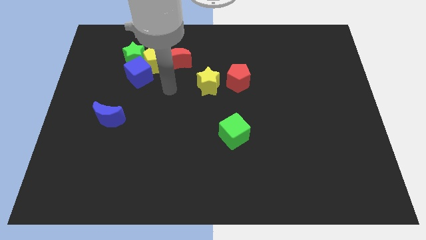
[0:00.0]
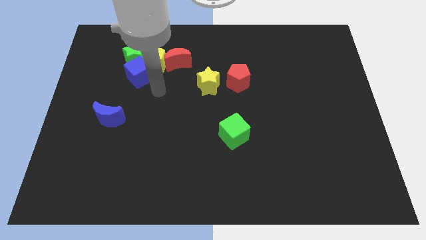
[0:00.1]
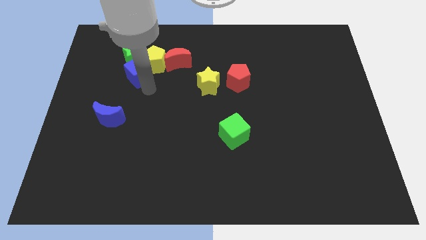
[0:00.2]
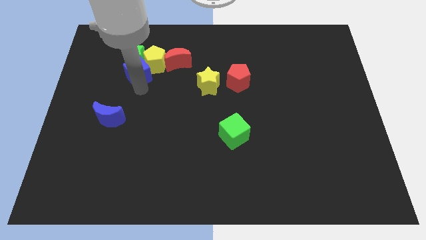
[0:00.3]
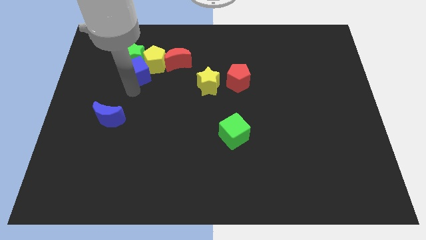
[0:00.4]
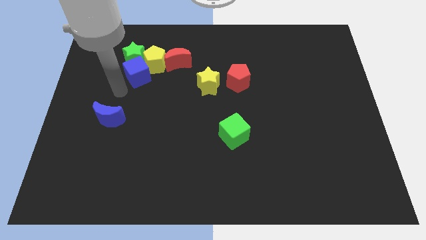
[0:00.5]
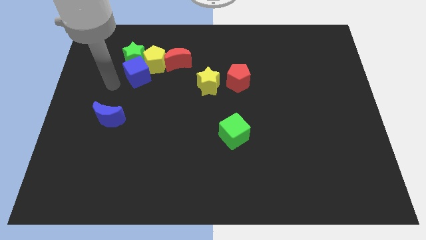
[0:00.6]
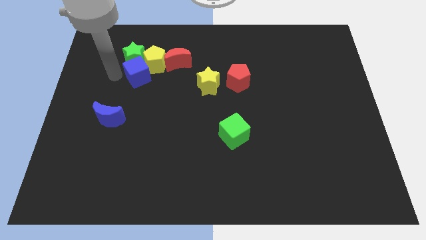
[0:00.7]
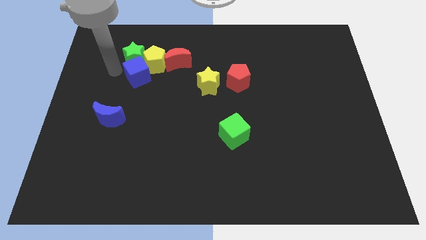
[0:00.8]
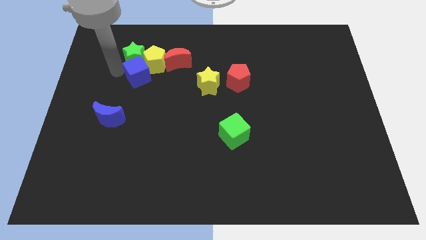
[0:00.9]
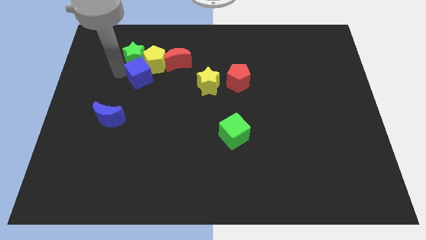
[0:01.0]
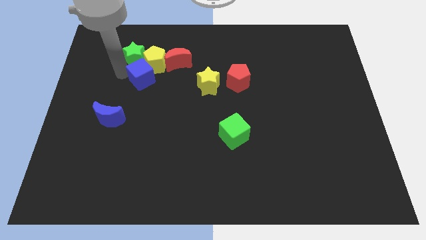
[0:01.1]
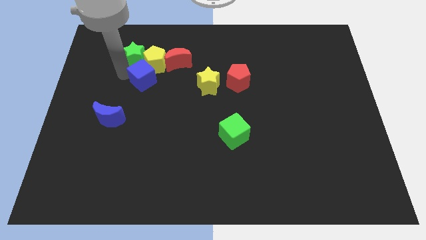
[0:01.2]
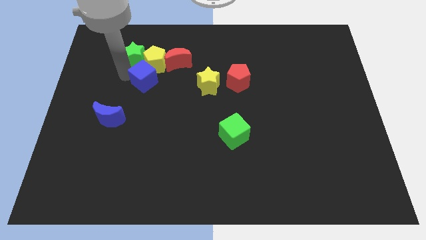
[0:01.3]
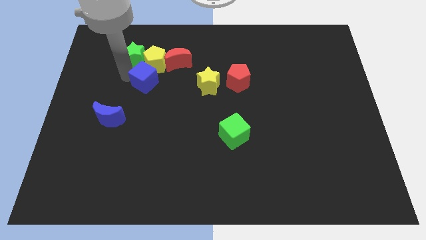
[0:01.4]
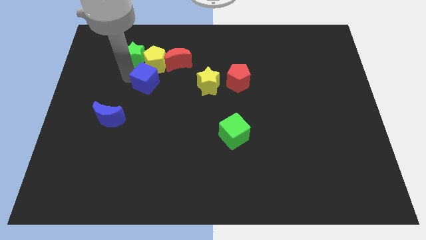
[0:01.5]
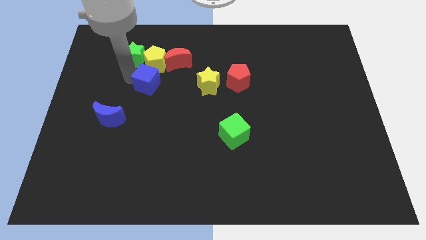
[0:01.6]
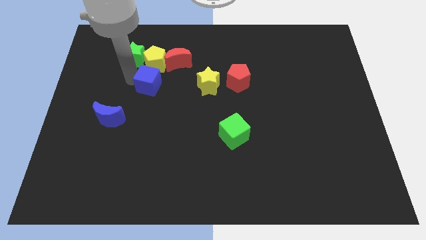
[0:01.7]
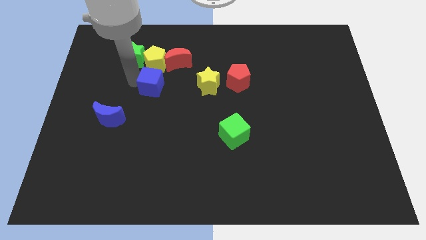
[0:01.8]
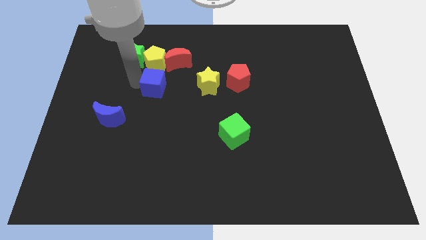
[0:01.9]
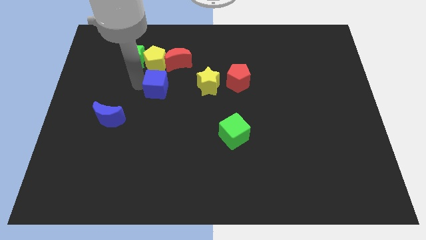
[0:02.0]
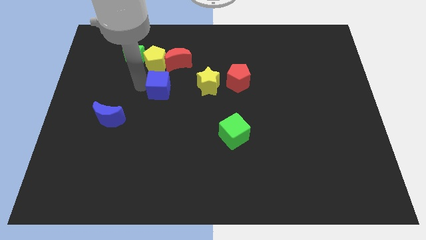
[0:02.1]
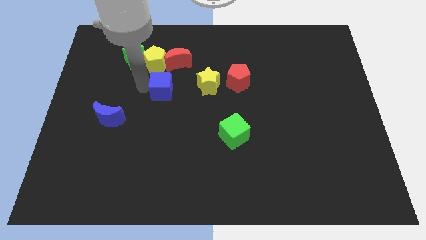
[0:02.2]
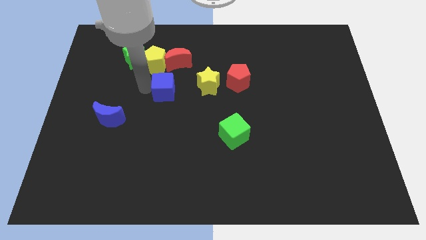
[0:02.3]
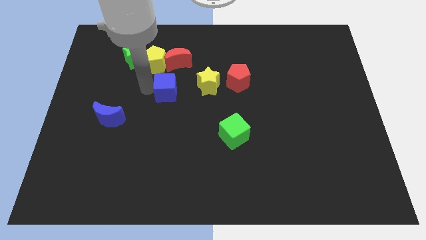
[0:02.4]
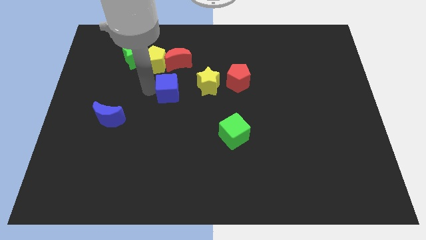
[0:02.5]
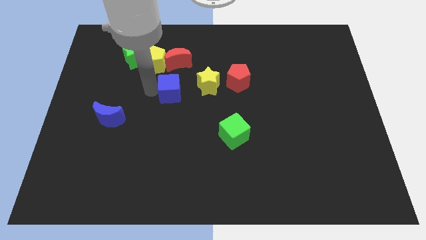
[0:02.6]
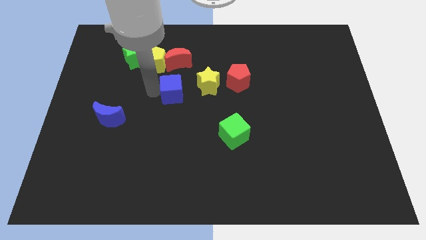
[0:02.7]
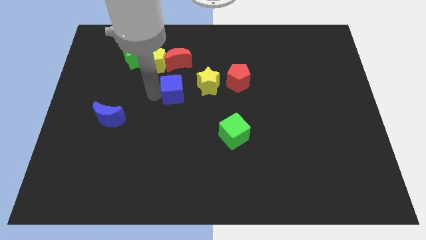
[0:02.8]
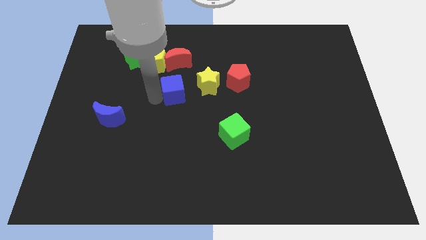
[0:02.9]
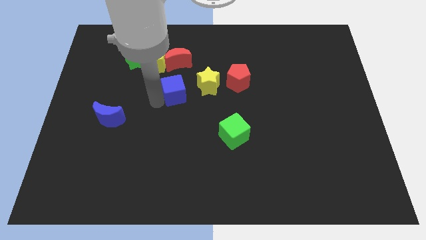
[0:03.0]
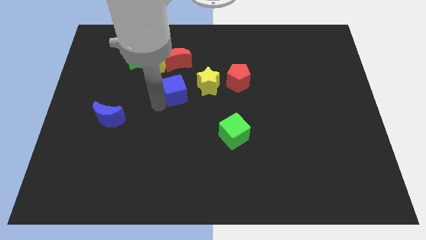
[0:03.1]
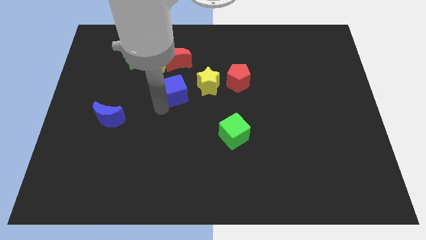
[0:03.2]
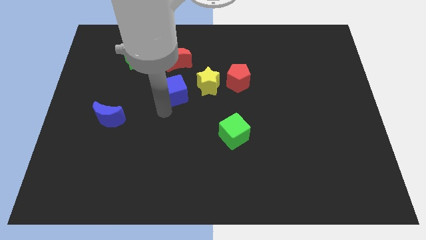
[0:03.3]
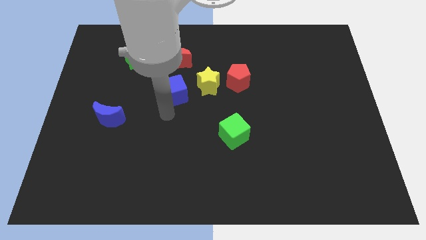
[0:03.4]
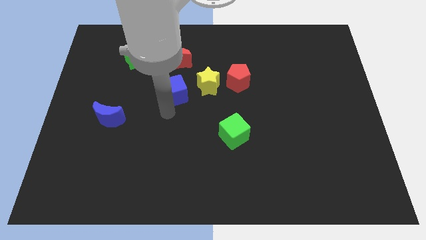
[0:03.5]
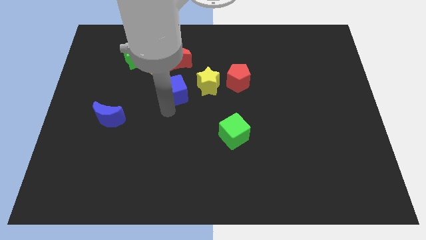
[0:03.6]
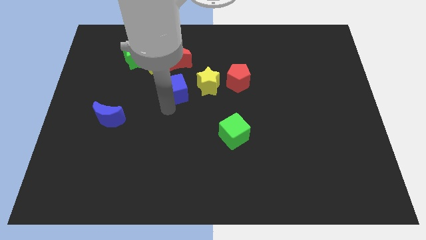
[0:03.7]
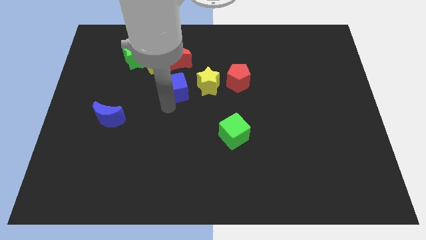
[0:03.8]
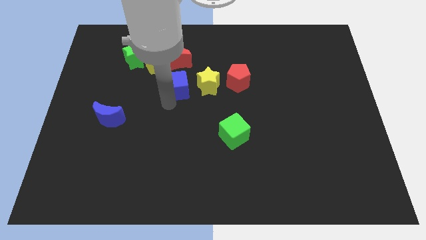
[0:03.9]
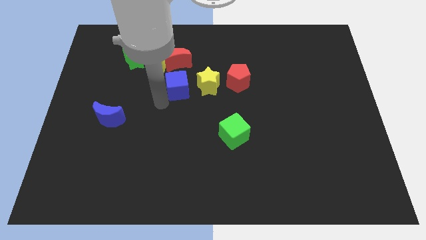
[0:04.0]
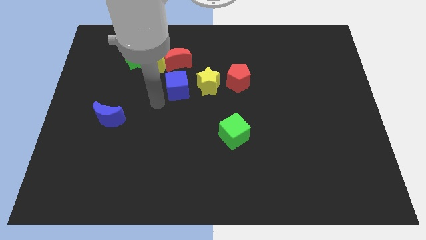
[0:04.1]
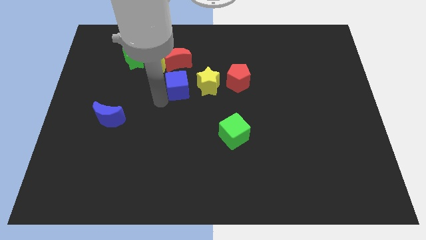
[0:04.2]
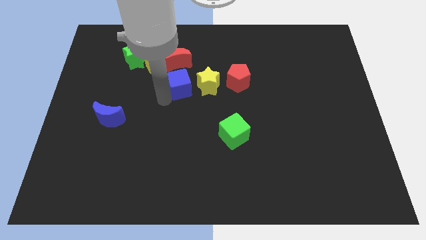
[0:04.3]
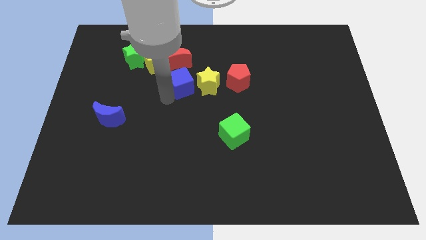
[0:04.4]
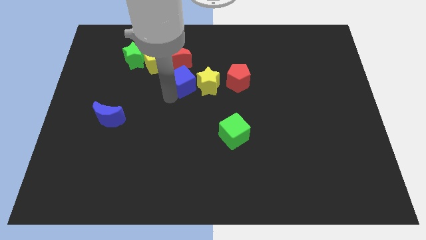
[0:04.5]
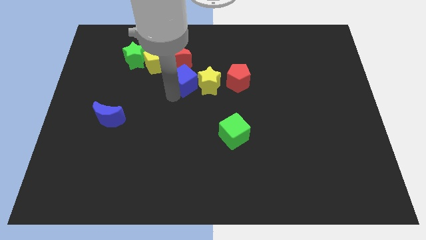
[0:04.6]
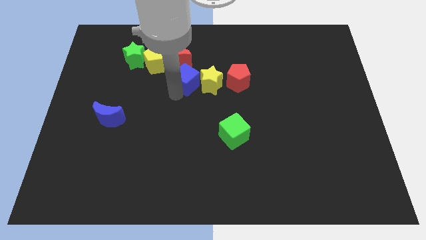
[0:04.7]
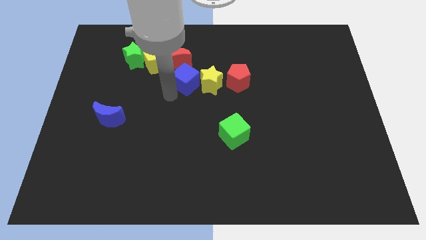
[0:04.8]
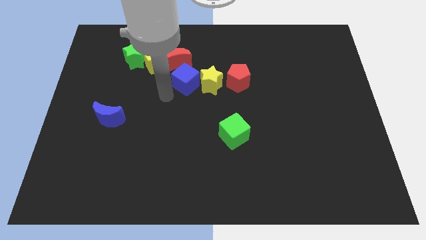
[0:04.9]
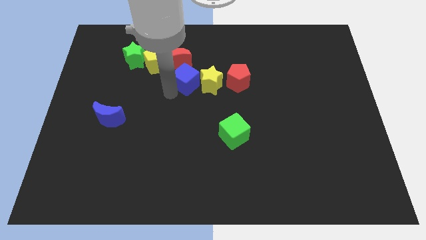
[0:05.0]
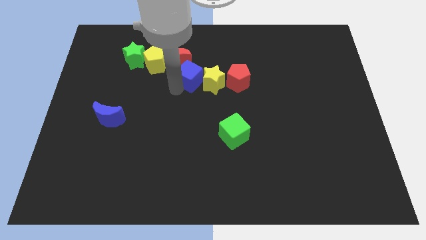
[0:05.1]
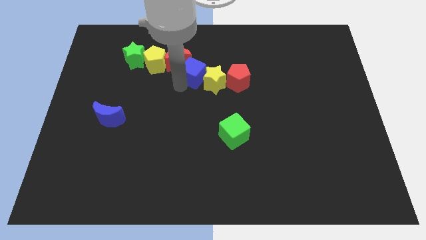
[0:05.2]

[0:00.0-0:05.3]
slide the blue cube just right of the red moon

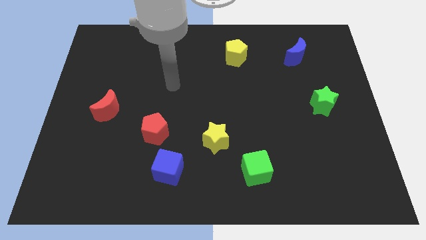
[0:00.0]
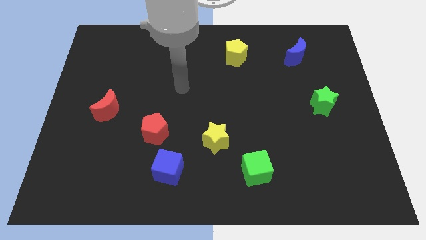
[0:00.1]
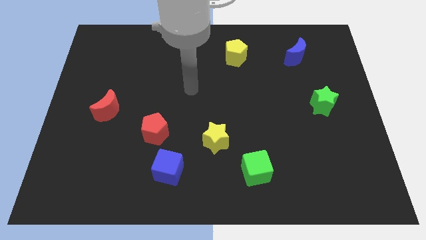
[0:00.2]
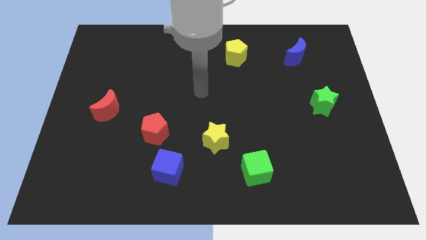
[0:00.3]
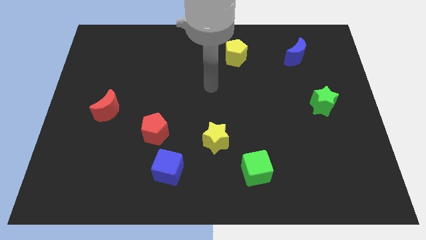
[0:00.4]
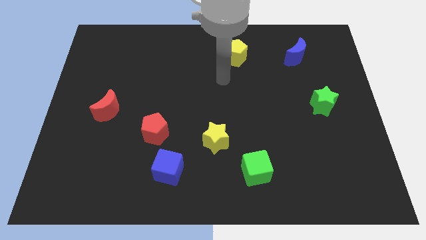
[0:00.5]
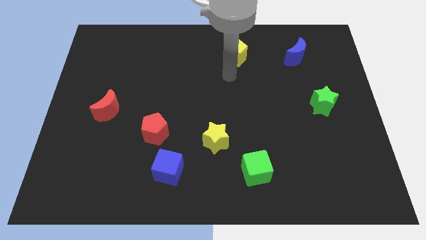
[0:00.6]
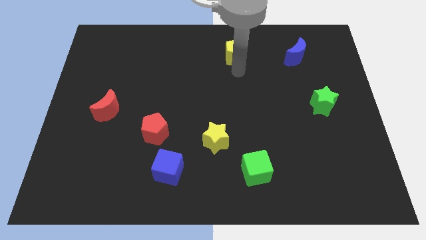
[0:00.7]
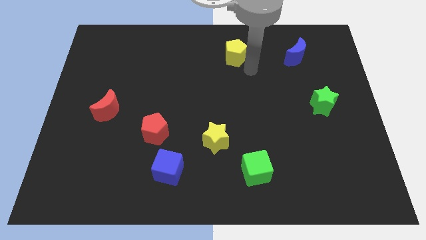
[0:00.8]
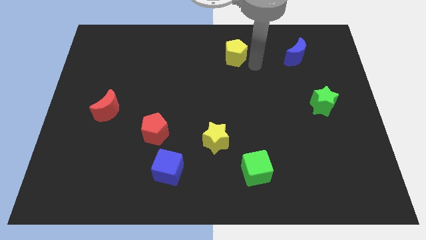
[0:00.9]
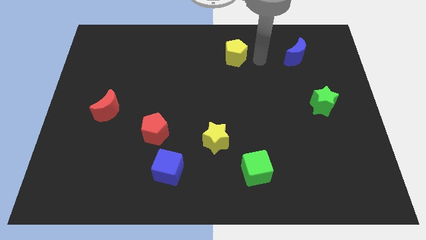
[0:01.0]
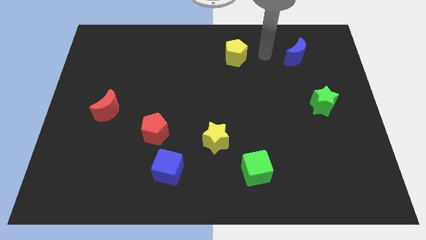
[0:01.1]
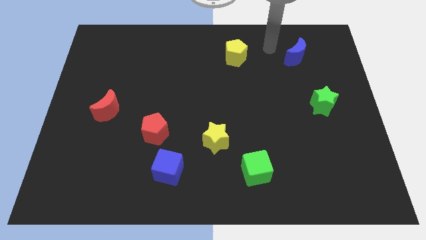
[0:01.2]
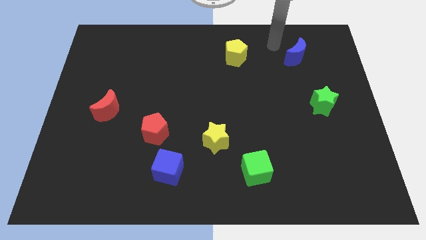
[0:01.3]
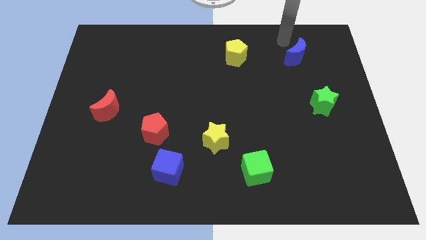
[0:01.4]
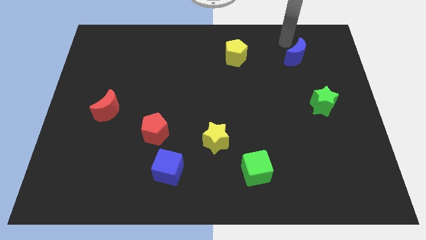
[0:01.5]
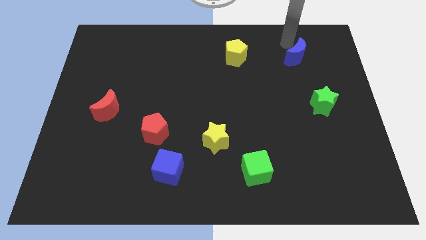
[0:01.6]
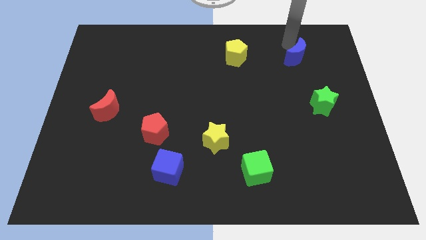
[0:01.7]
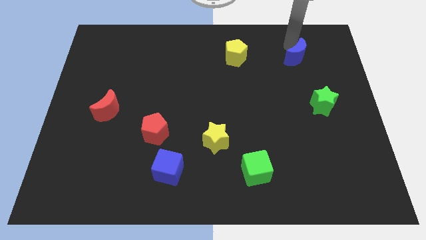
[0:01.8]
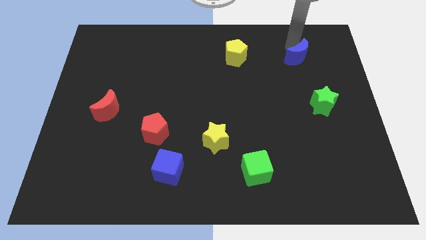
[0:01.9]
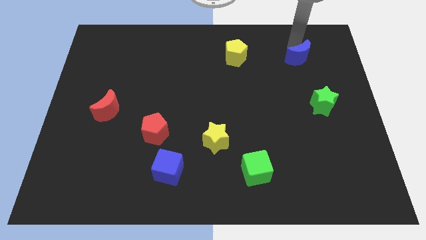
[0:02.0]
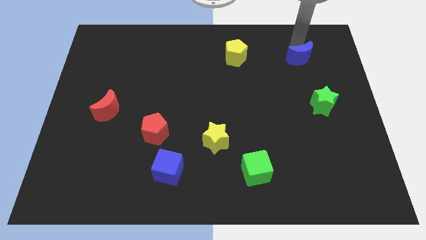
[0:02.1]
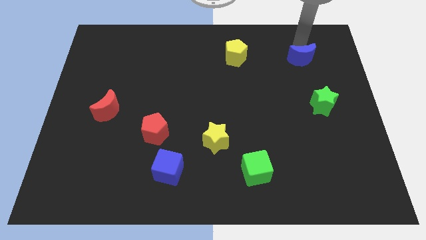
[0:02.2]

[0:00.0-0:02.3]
push the blue moon to the top of the green star
